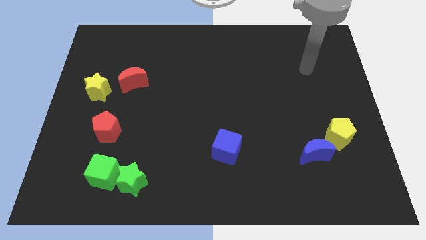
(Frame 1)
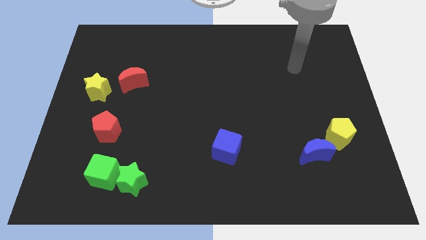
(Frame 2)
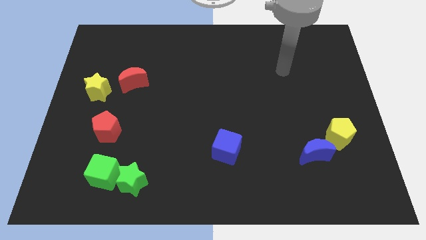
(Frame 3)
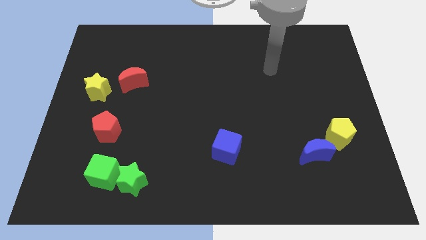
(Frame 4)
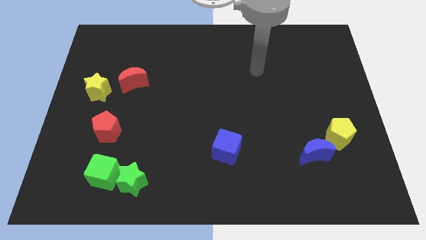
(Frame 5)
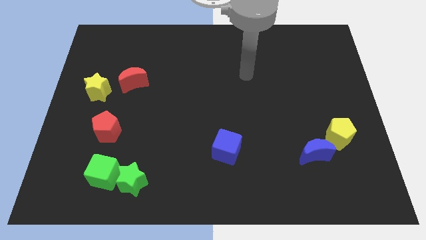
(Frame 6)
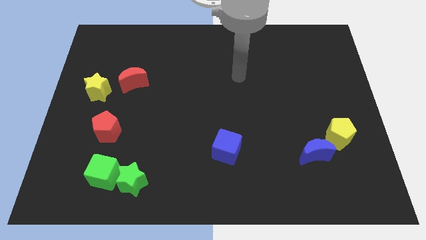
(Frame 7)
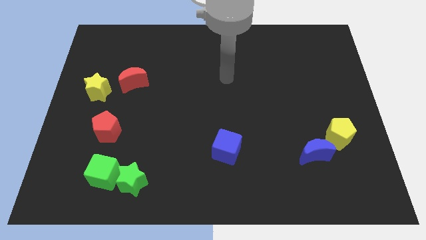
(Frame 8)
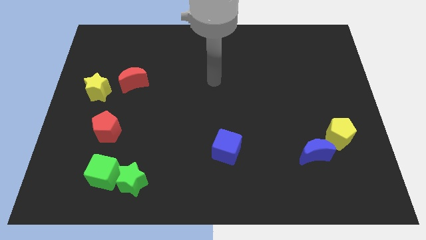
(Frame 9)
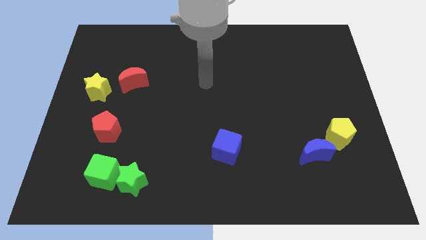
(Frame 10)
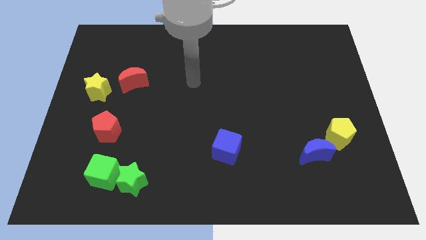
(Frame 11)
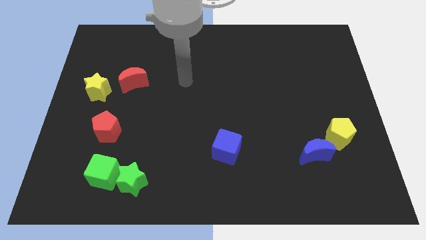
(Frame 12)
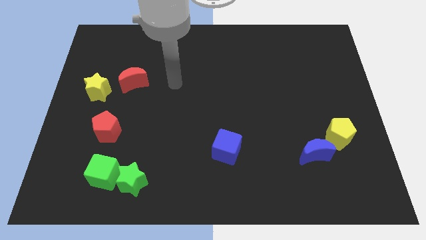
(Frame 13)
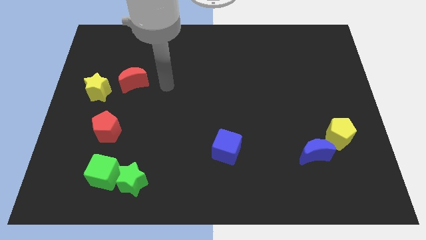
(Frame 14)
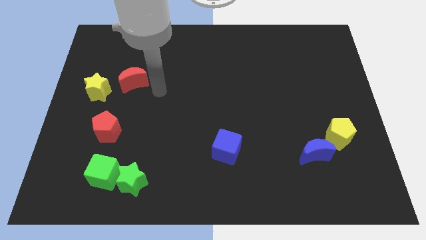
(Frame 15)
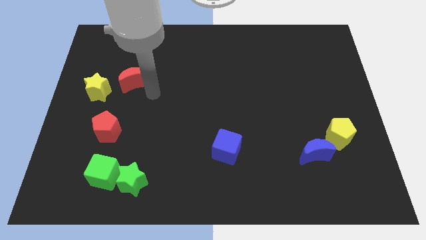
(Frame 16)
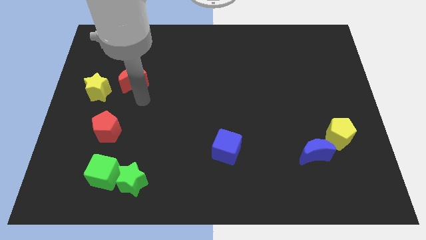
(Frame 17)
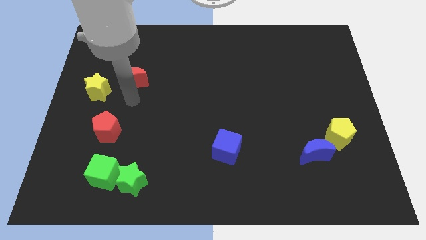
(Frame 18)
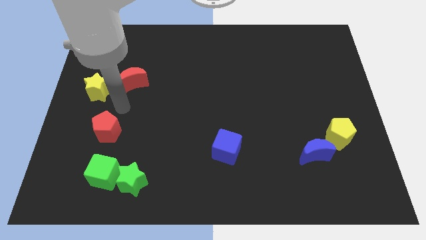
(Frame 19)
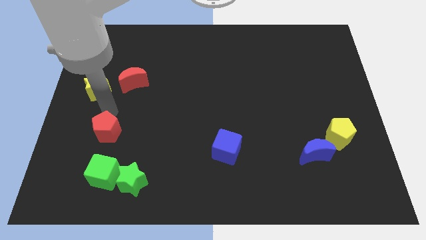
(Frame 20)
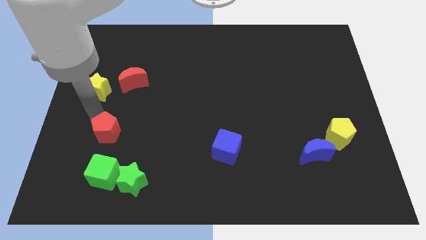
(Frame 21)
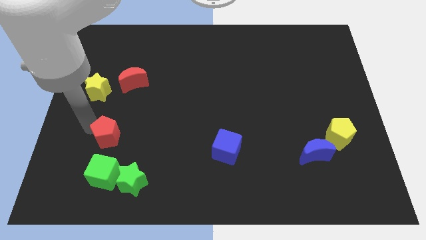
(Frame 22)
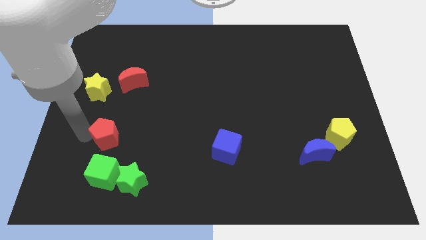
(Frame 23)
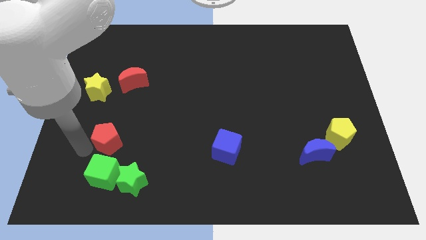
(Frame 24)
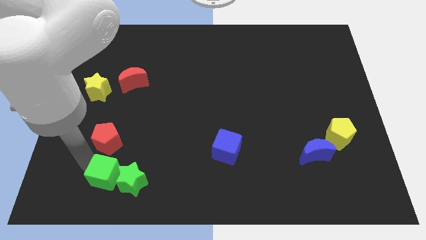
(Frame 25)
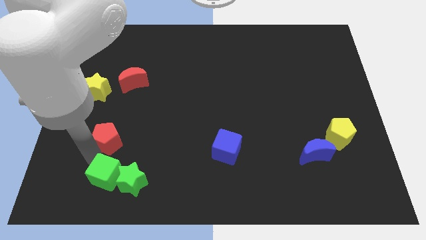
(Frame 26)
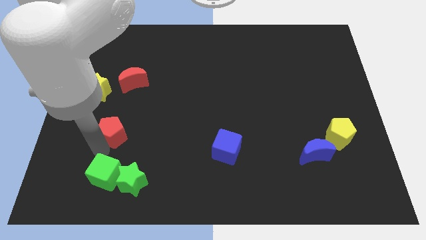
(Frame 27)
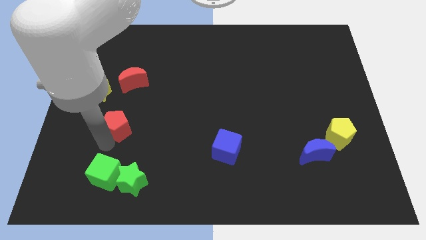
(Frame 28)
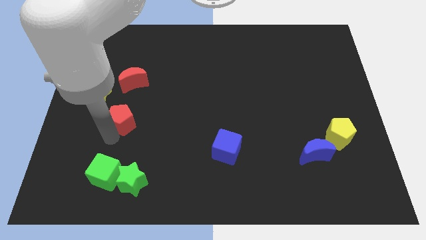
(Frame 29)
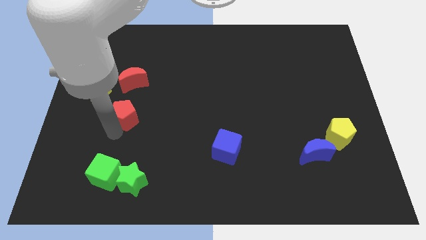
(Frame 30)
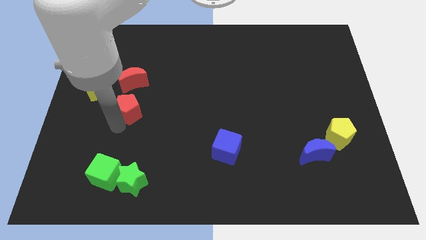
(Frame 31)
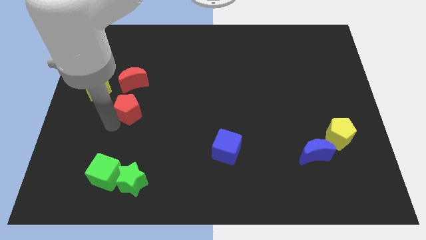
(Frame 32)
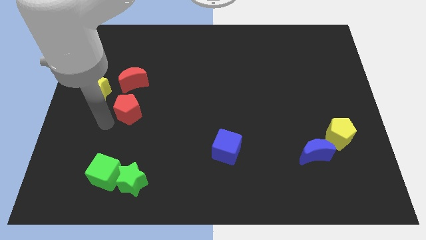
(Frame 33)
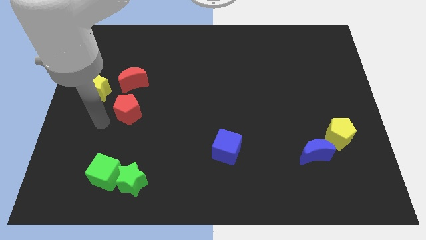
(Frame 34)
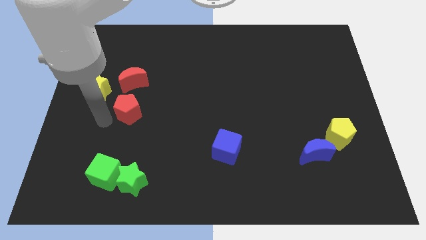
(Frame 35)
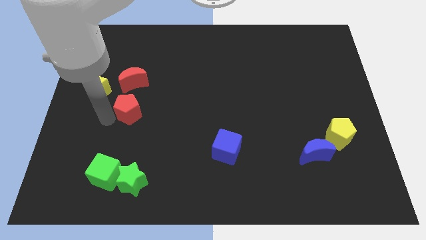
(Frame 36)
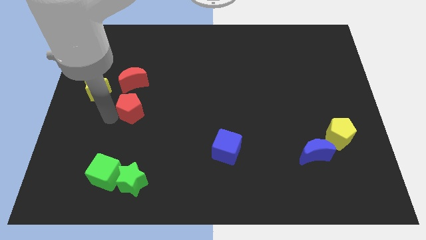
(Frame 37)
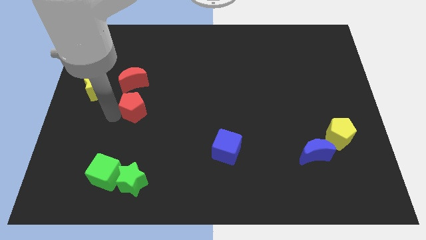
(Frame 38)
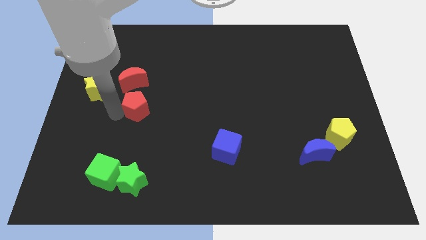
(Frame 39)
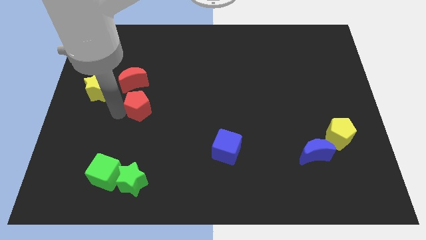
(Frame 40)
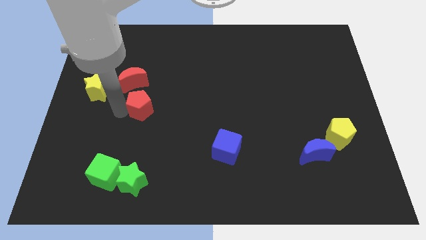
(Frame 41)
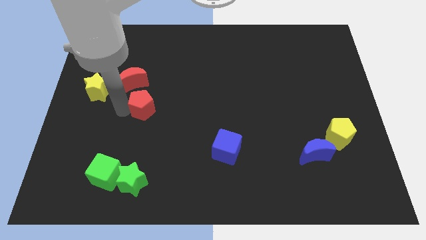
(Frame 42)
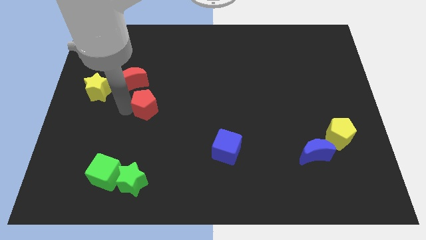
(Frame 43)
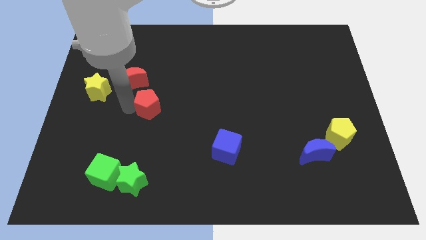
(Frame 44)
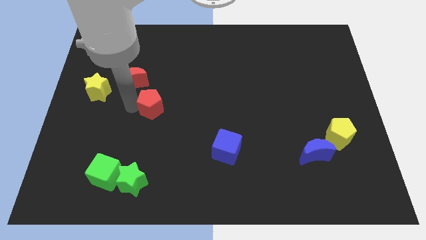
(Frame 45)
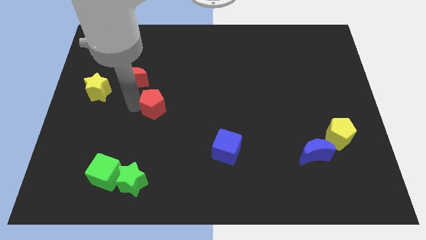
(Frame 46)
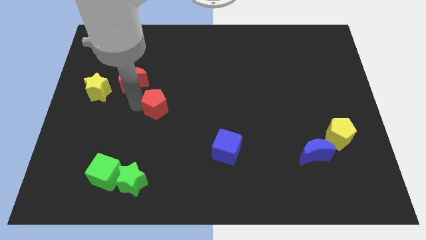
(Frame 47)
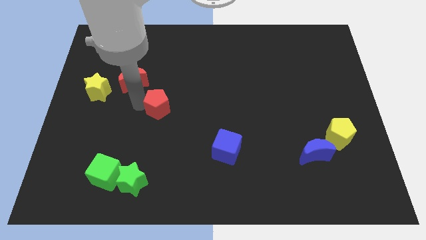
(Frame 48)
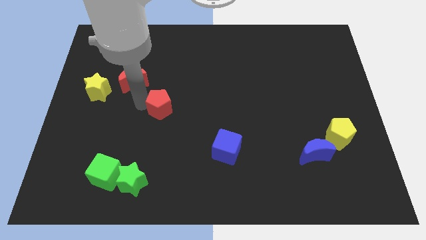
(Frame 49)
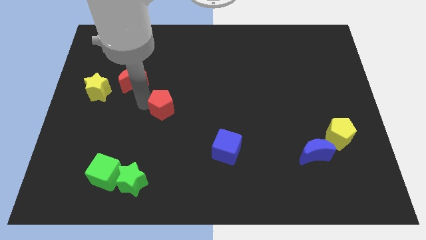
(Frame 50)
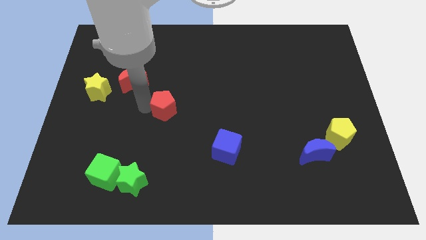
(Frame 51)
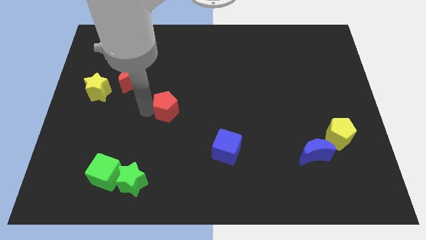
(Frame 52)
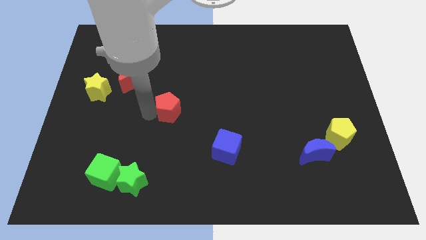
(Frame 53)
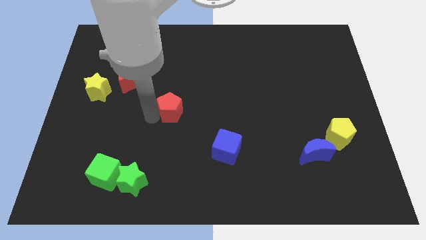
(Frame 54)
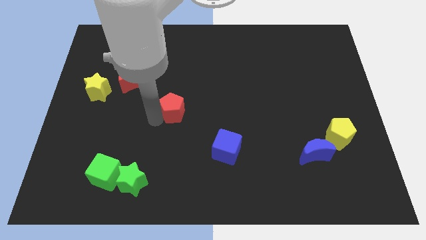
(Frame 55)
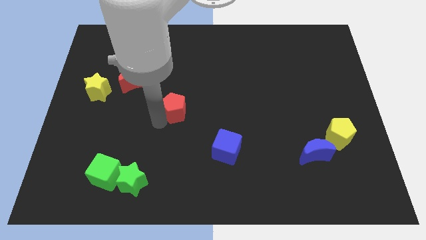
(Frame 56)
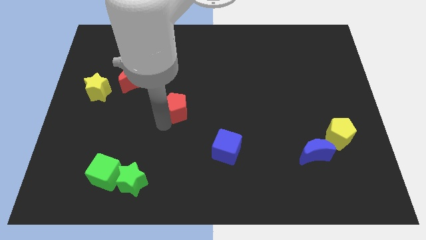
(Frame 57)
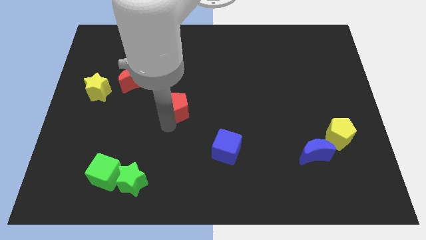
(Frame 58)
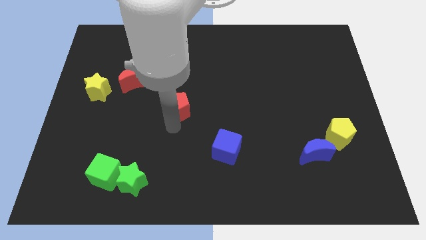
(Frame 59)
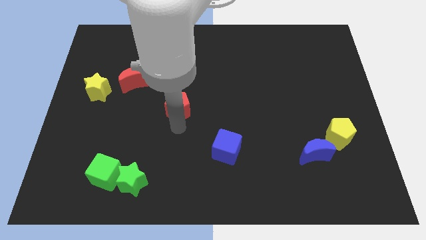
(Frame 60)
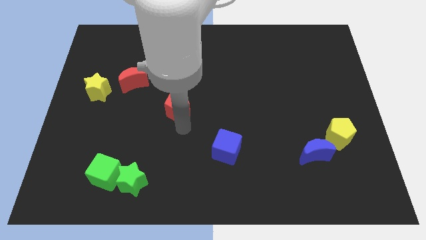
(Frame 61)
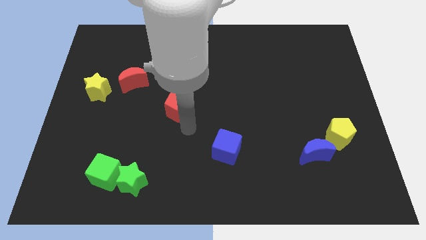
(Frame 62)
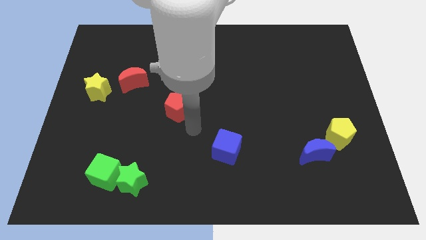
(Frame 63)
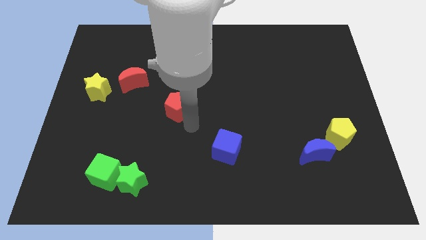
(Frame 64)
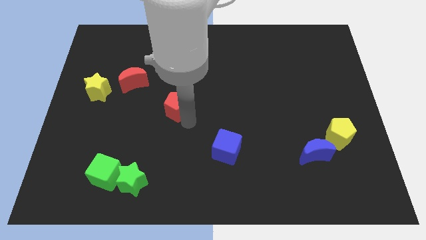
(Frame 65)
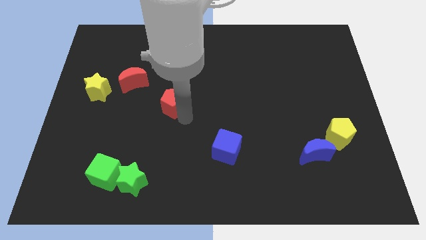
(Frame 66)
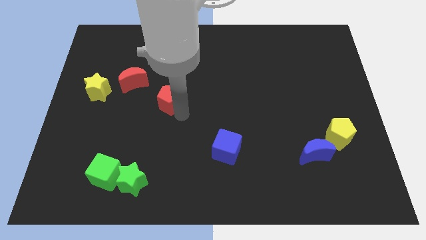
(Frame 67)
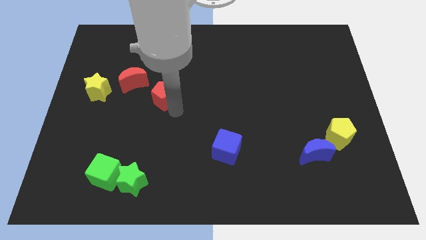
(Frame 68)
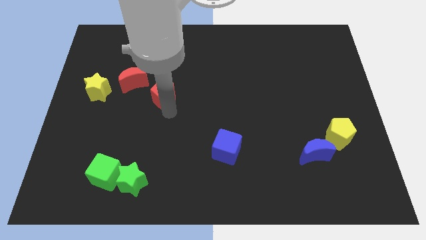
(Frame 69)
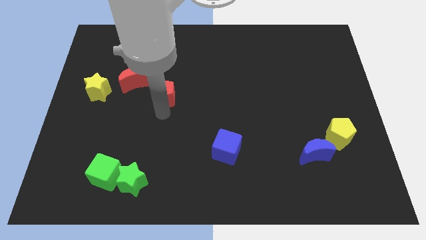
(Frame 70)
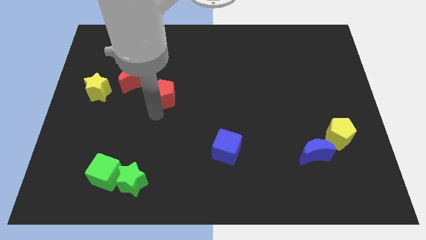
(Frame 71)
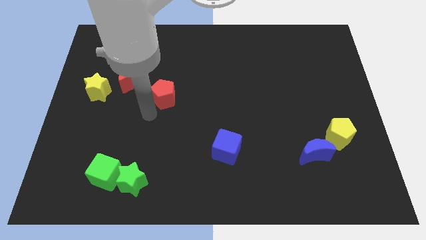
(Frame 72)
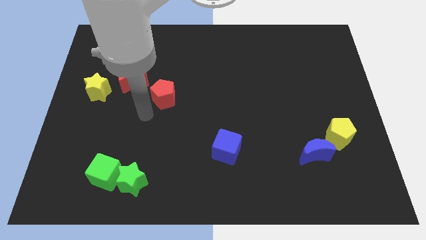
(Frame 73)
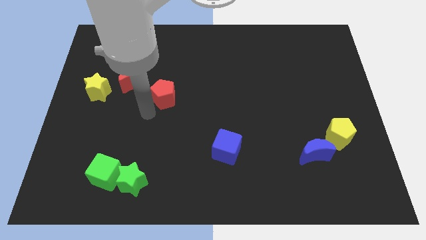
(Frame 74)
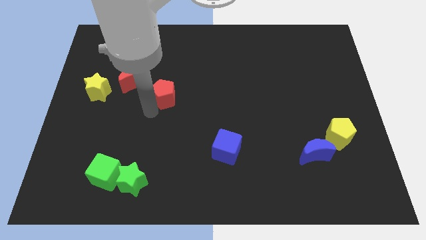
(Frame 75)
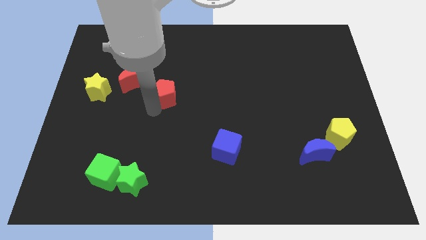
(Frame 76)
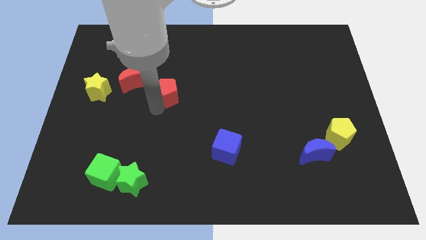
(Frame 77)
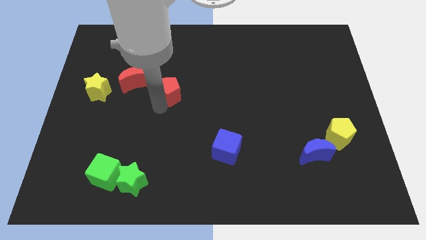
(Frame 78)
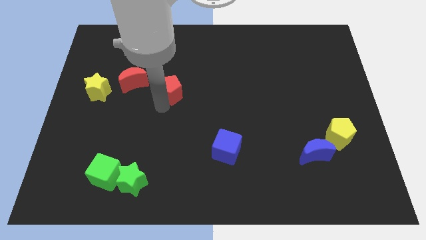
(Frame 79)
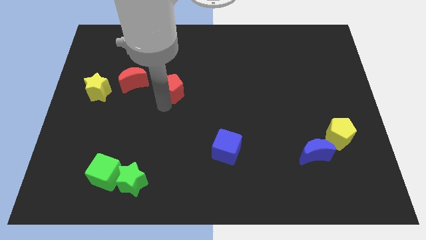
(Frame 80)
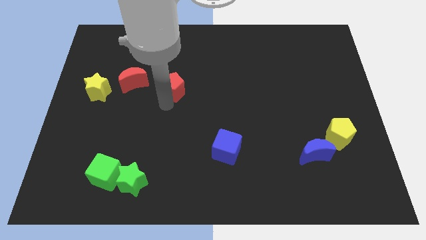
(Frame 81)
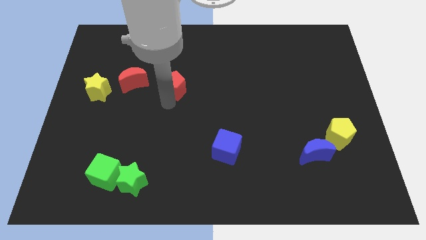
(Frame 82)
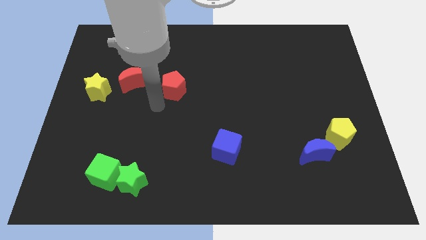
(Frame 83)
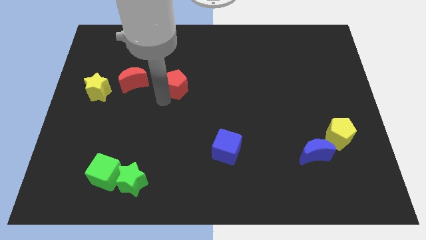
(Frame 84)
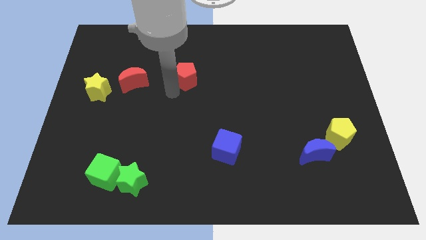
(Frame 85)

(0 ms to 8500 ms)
push the red pentagon up and right diagonally
